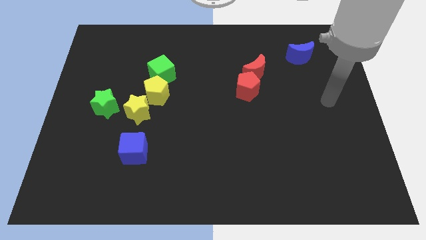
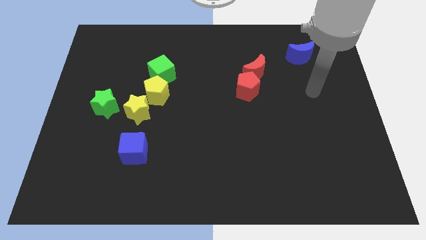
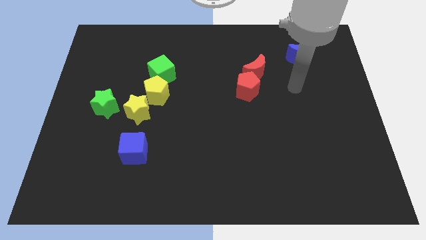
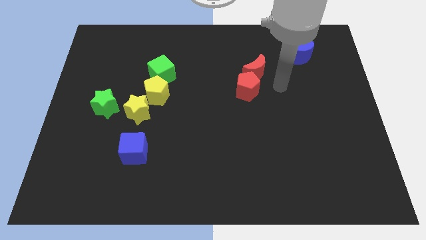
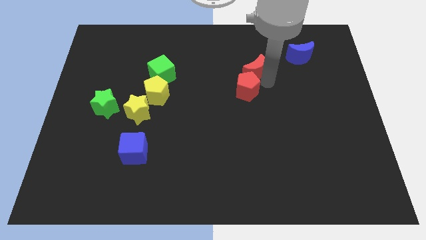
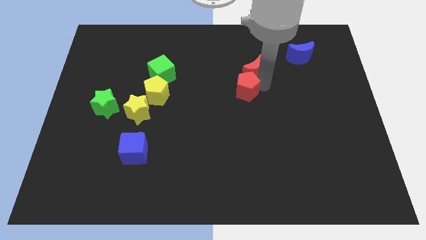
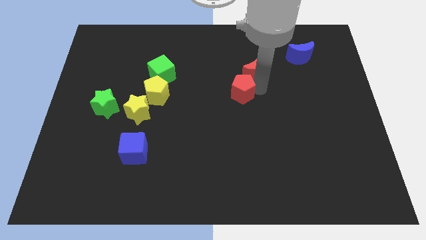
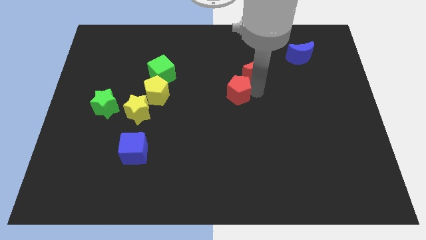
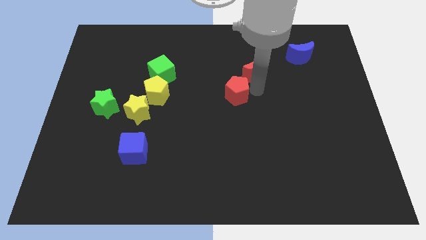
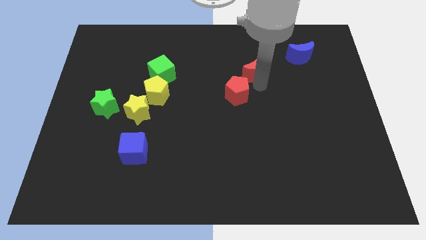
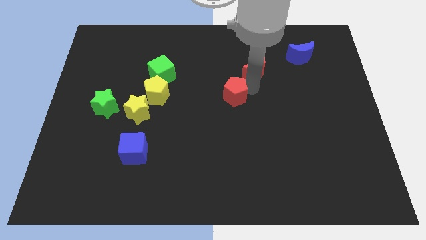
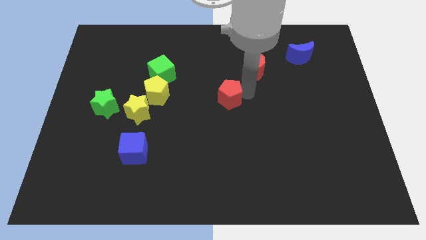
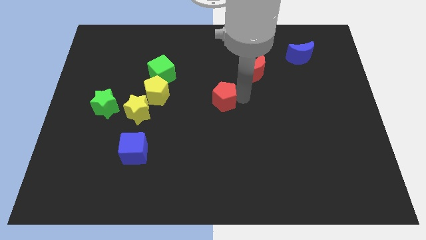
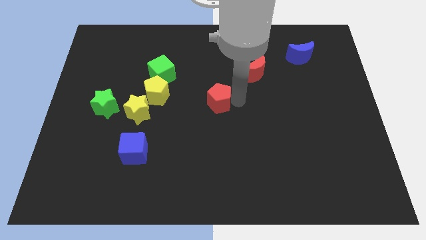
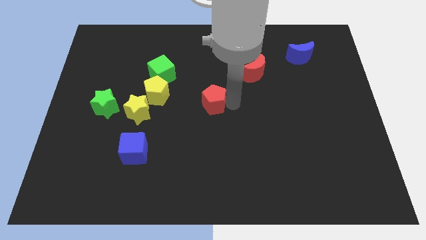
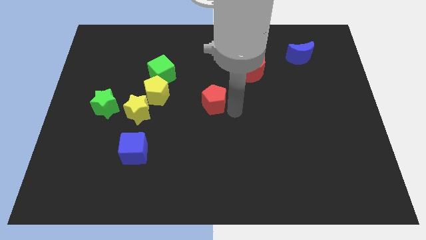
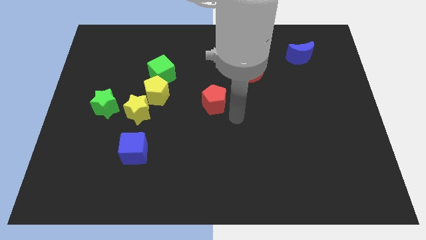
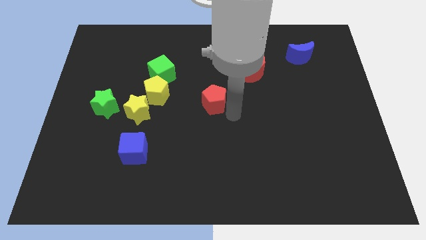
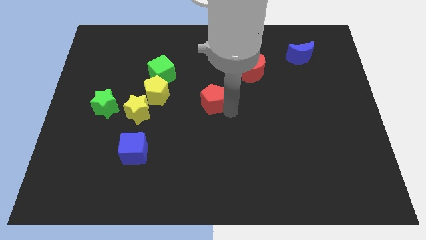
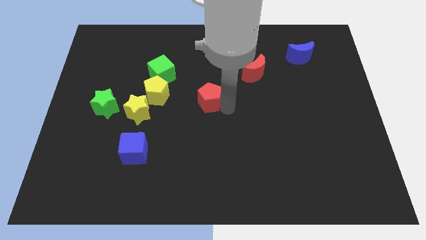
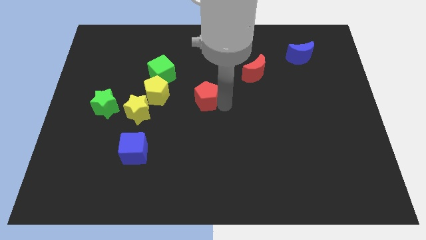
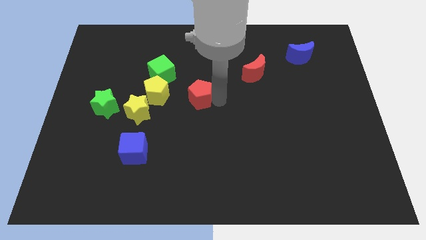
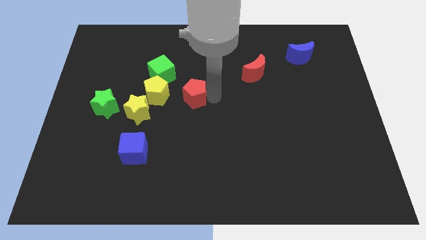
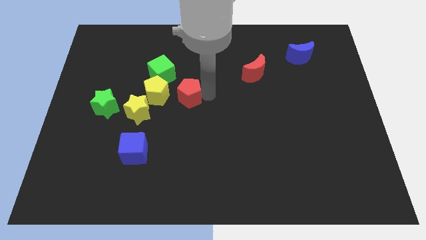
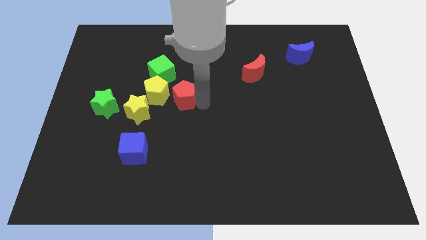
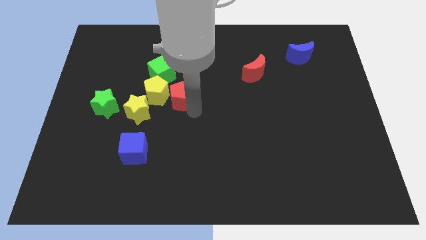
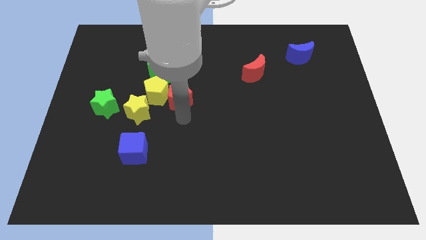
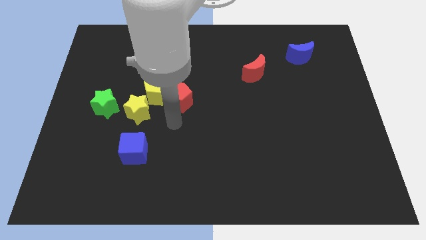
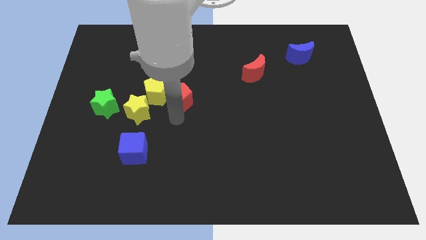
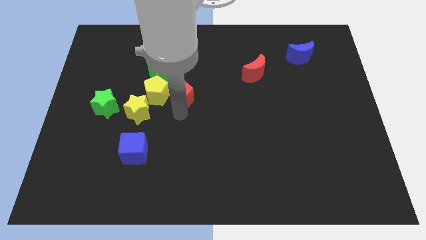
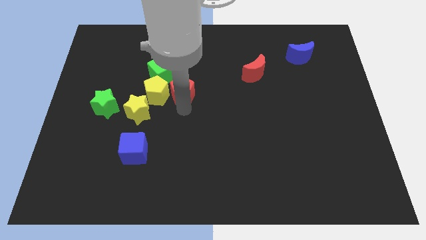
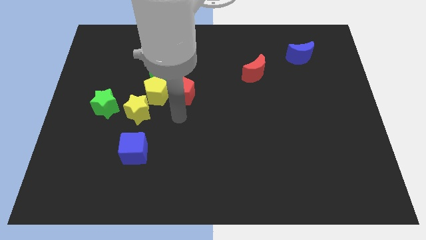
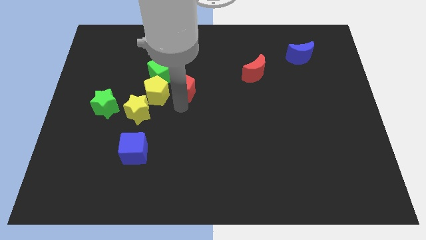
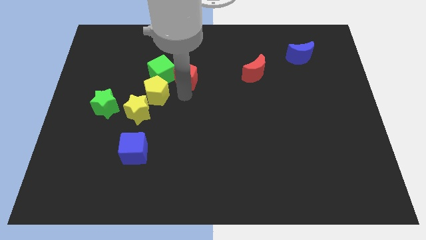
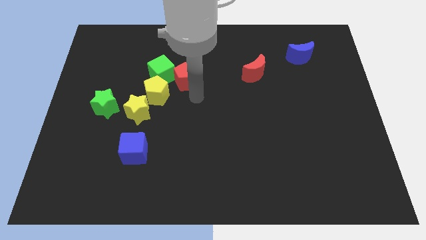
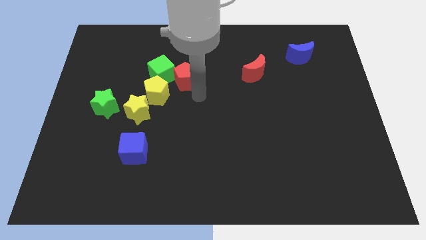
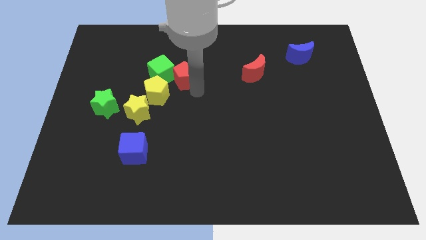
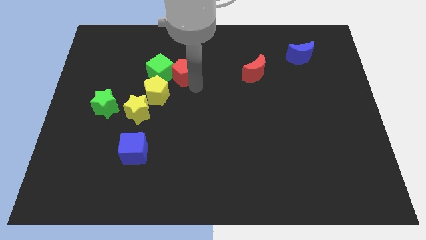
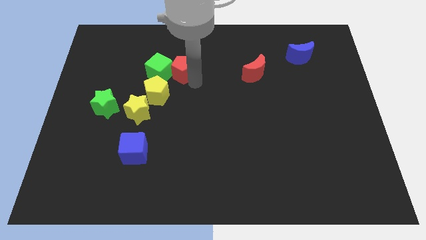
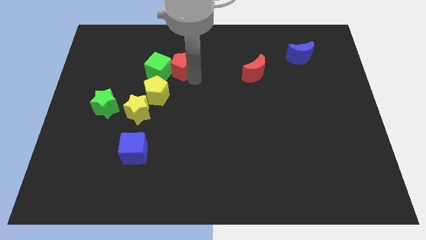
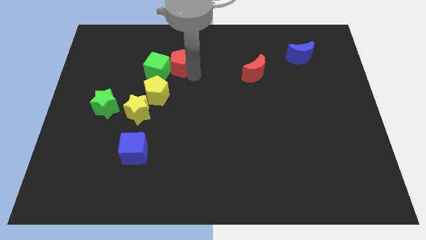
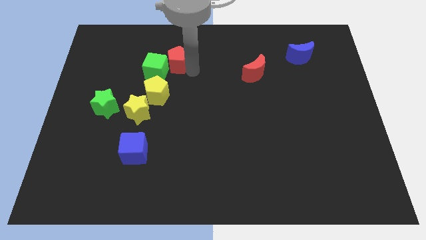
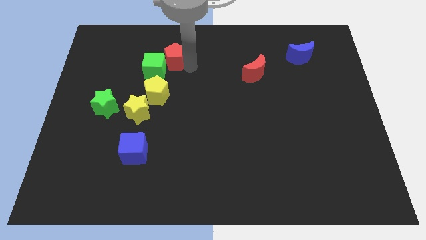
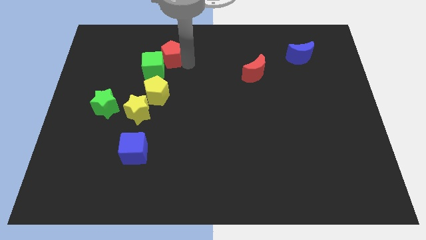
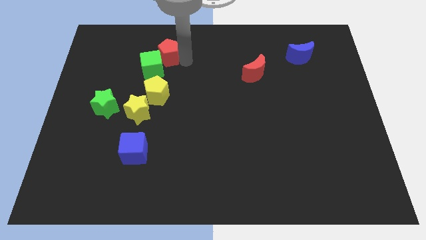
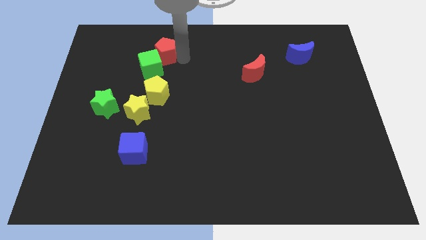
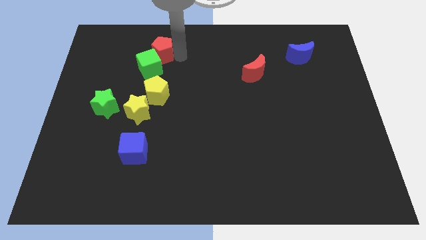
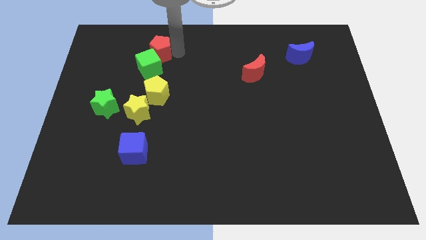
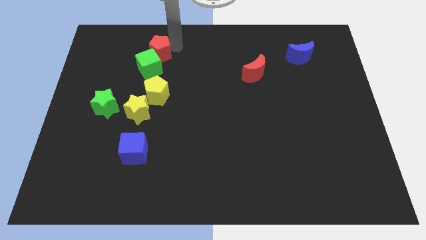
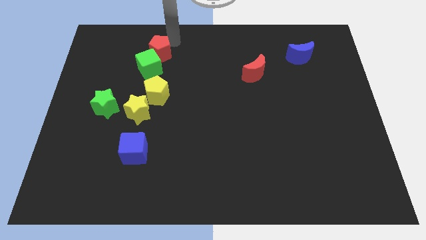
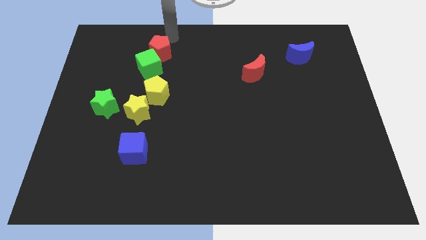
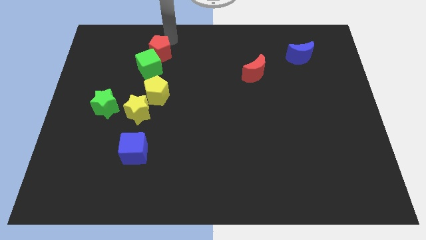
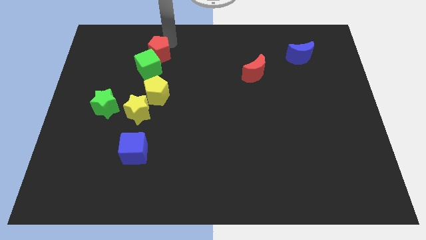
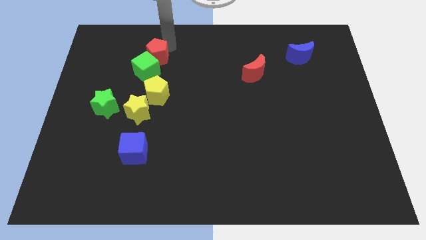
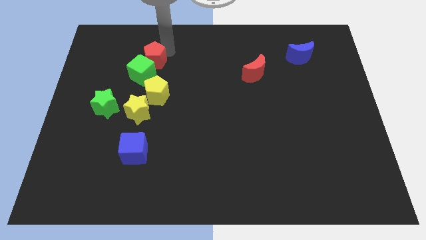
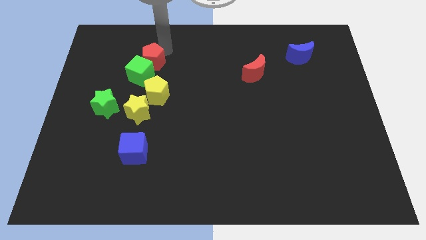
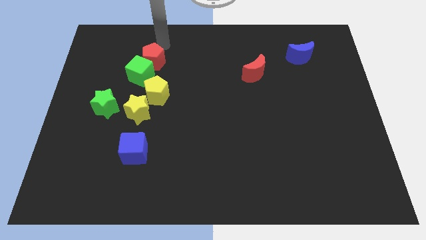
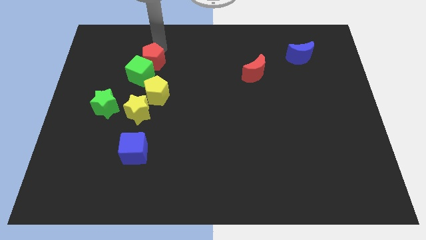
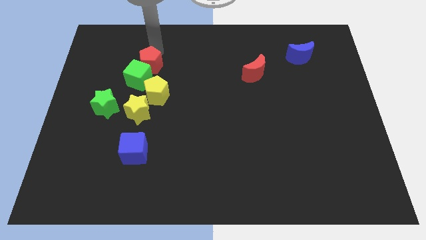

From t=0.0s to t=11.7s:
move the red pentagon above the yellow star

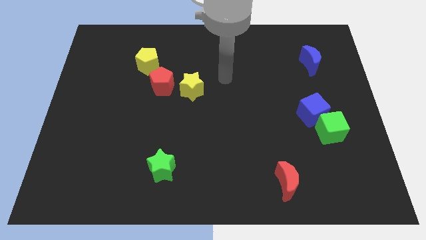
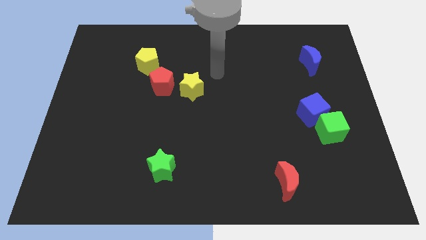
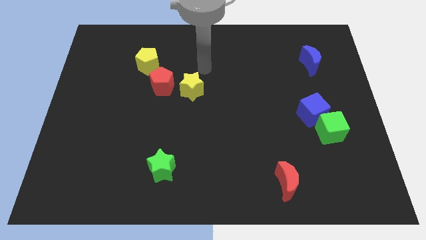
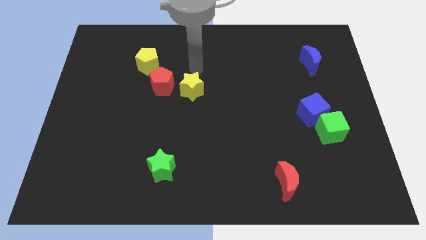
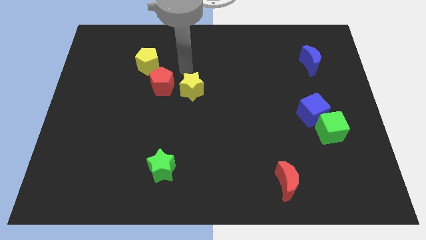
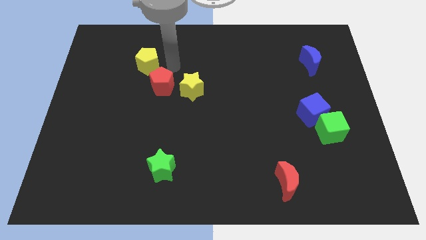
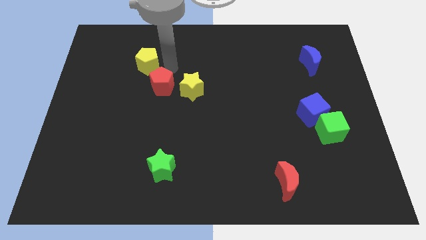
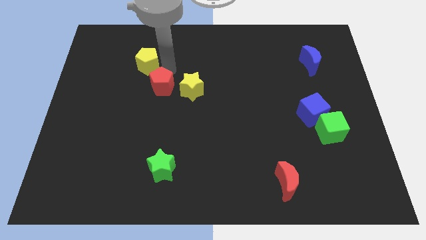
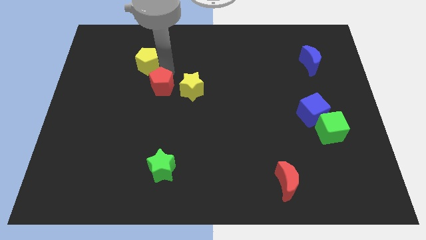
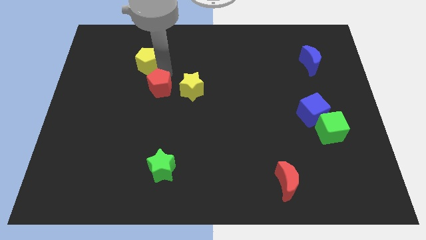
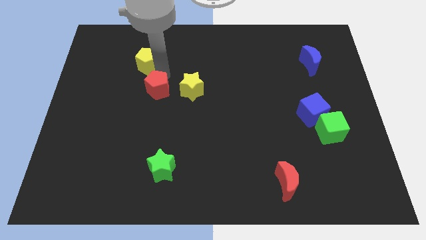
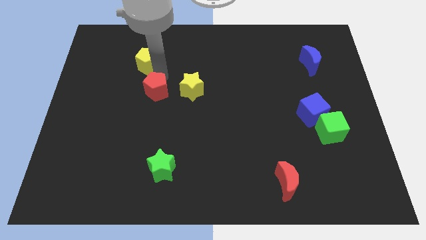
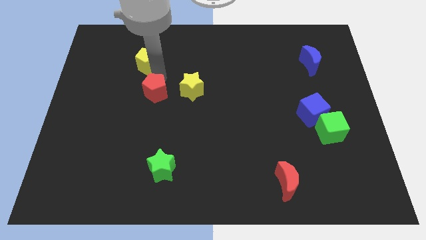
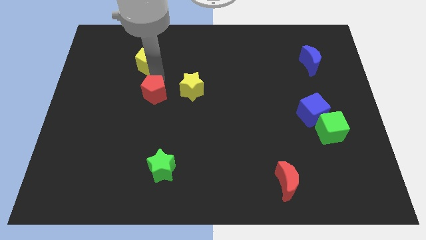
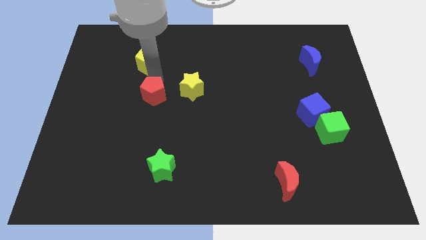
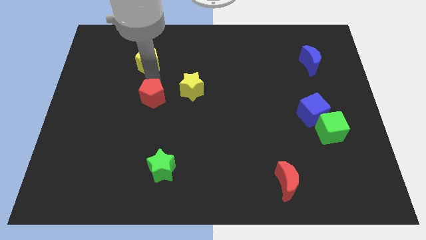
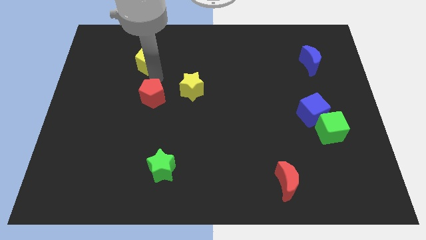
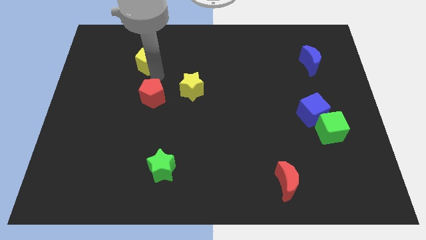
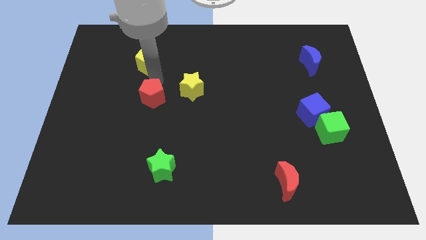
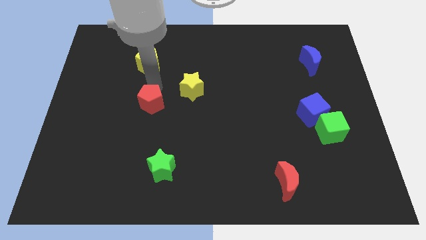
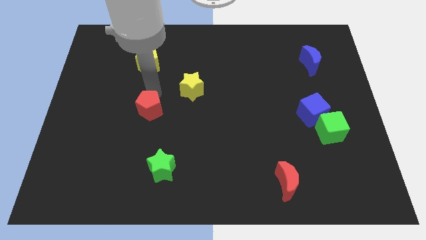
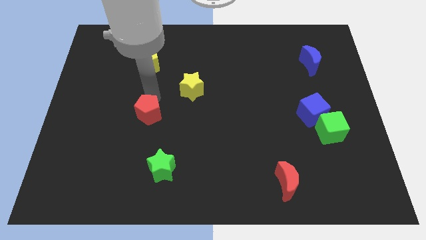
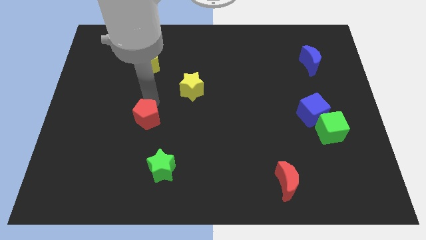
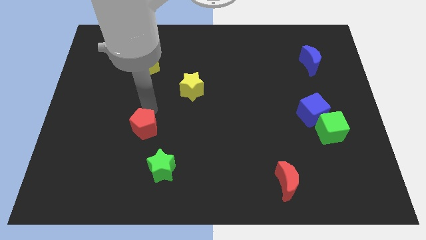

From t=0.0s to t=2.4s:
put the red pentagon to the top left side of the green star
